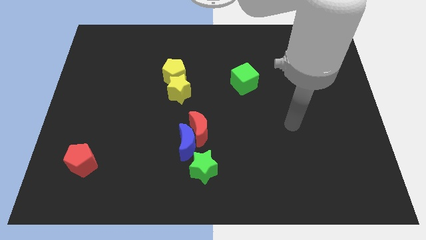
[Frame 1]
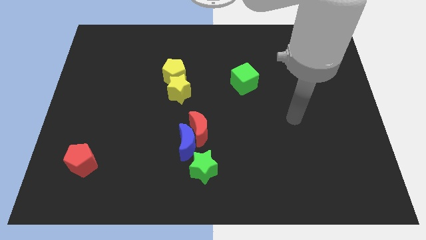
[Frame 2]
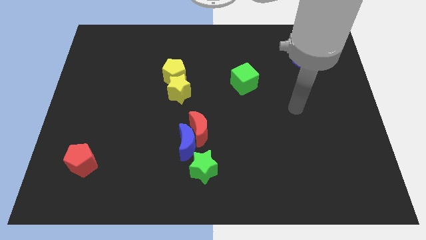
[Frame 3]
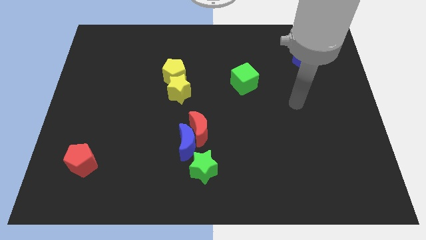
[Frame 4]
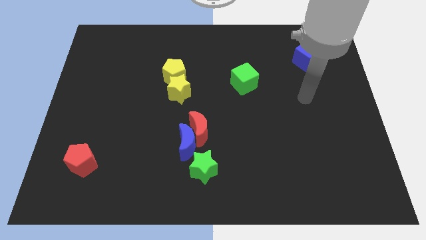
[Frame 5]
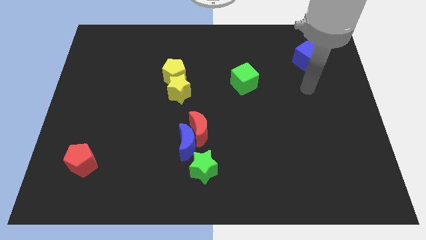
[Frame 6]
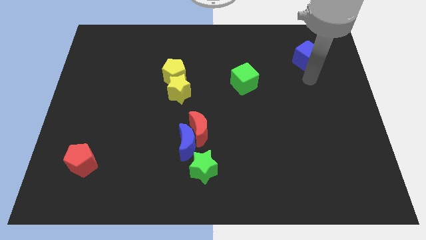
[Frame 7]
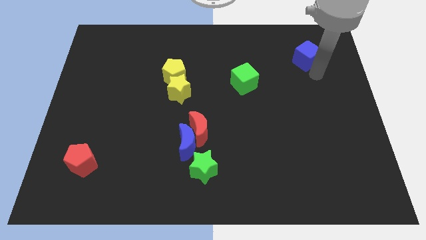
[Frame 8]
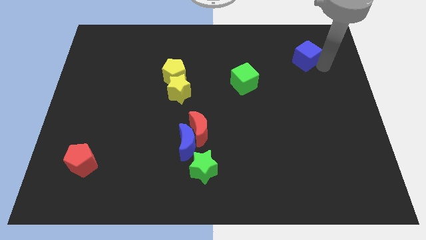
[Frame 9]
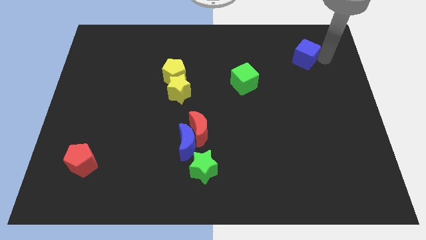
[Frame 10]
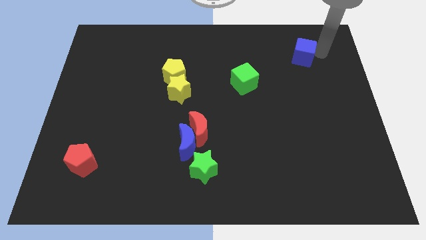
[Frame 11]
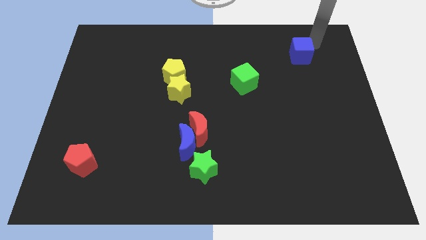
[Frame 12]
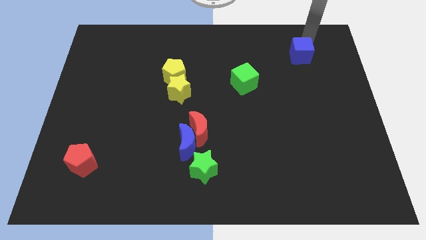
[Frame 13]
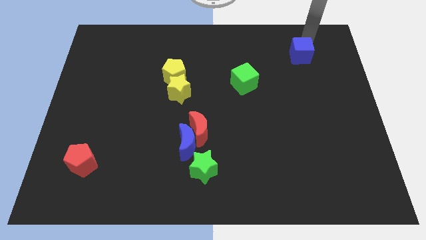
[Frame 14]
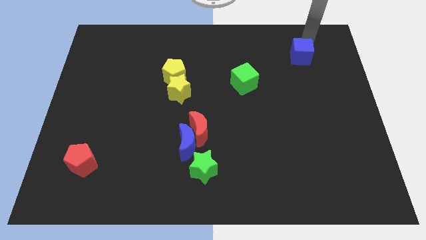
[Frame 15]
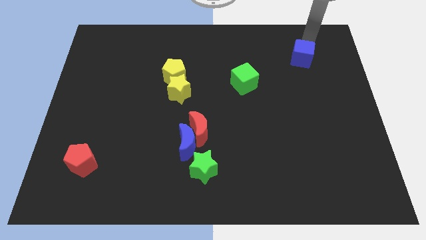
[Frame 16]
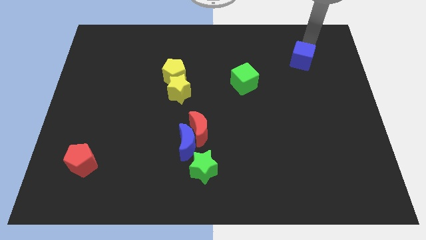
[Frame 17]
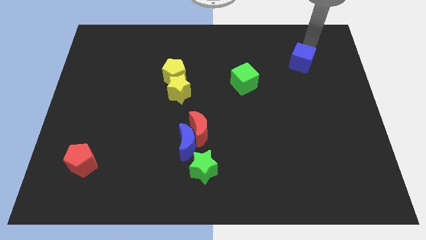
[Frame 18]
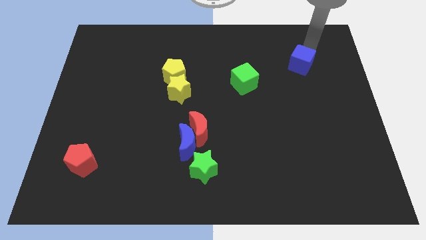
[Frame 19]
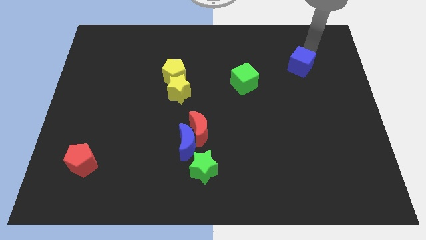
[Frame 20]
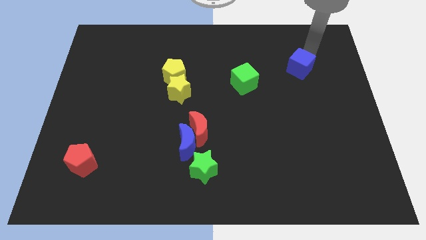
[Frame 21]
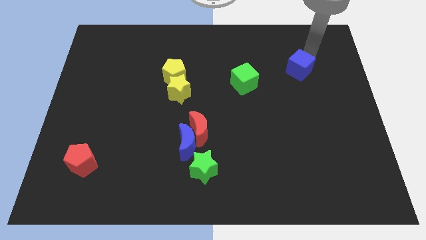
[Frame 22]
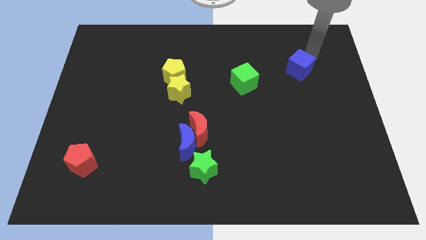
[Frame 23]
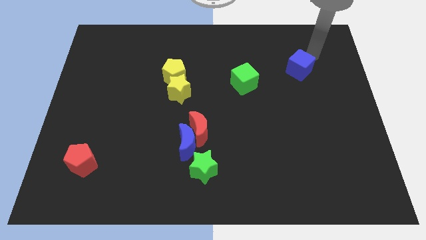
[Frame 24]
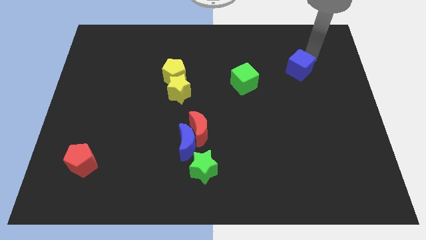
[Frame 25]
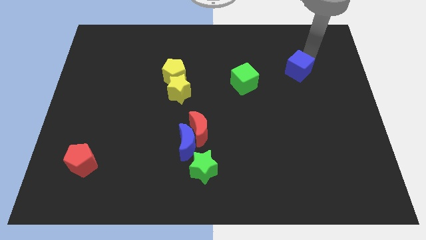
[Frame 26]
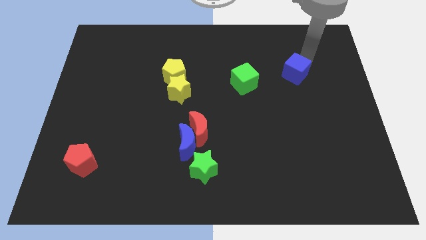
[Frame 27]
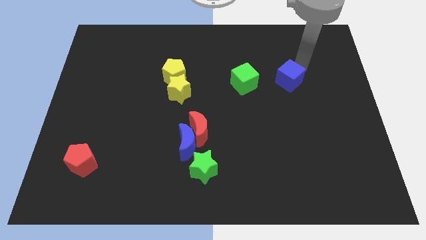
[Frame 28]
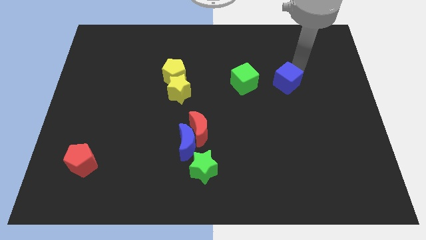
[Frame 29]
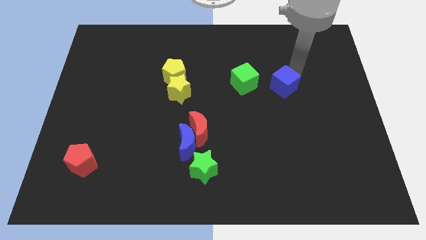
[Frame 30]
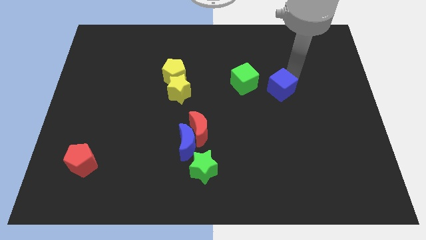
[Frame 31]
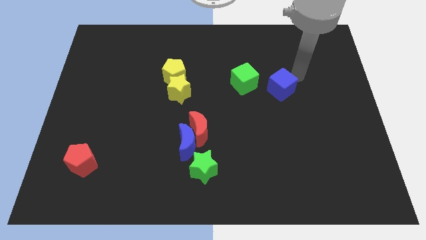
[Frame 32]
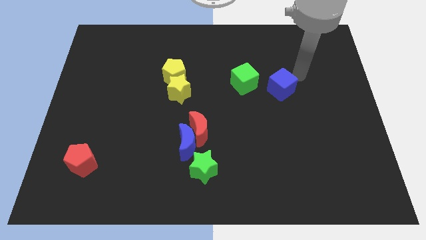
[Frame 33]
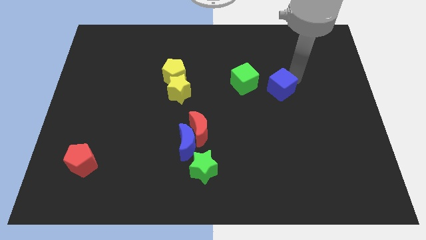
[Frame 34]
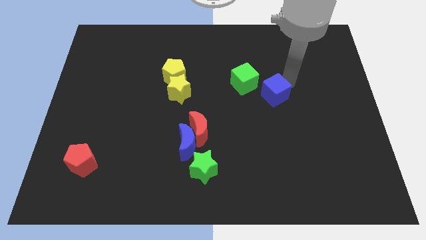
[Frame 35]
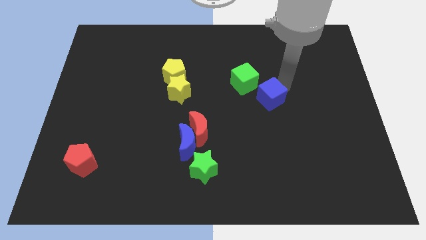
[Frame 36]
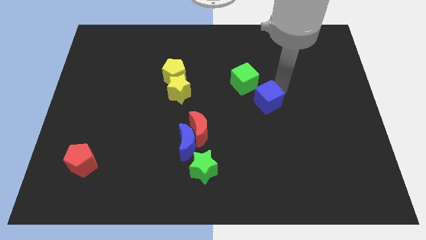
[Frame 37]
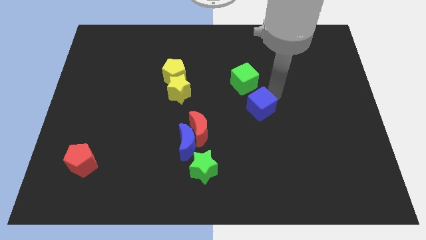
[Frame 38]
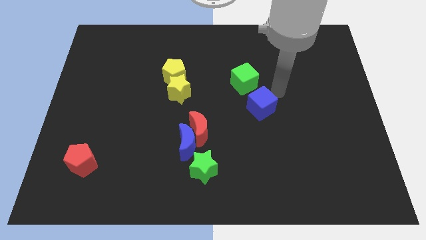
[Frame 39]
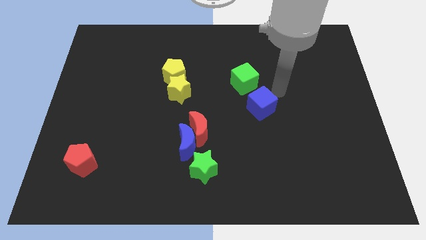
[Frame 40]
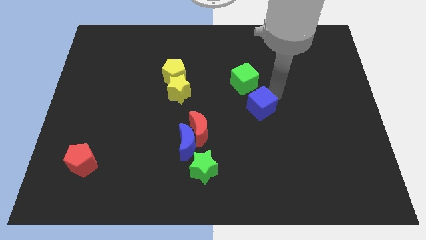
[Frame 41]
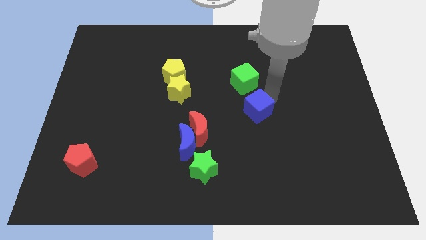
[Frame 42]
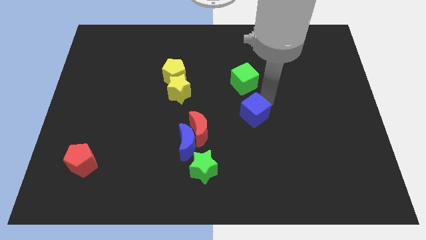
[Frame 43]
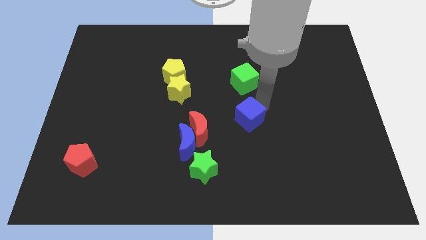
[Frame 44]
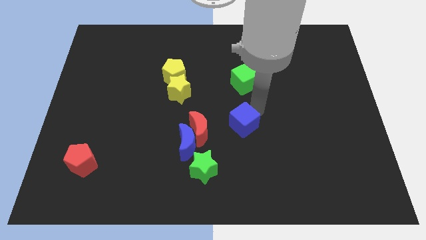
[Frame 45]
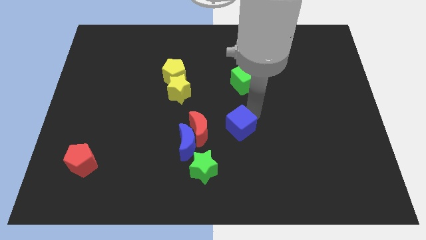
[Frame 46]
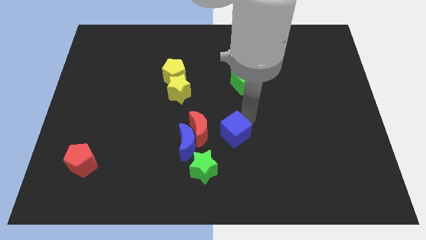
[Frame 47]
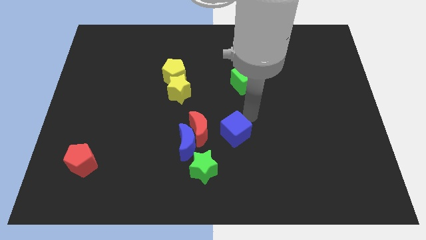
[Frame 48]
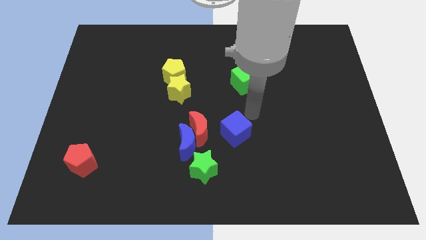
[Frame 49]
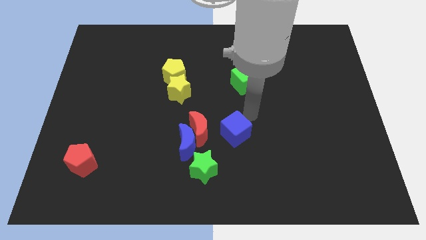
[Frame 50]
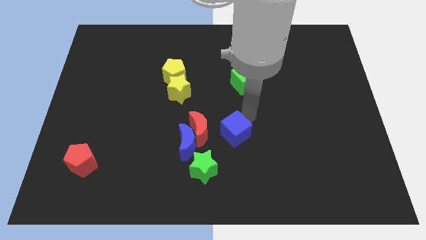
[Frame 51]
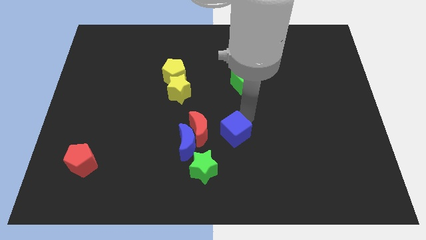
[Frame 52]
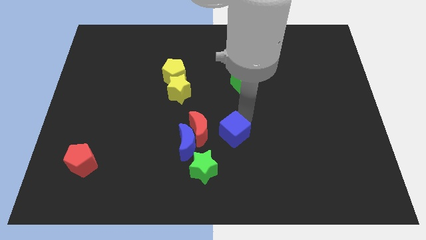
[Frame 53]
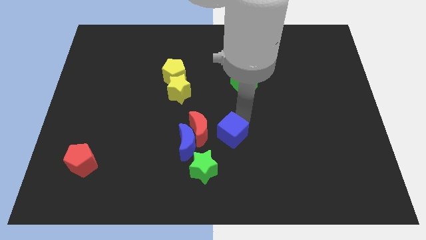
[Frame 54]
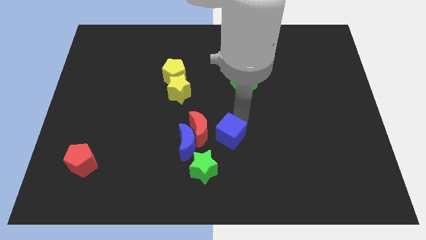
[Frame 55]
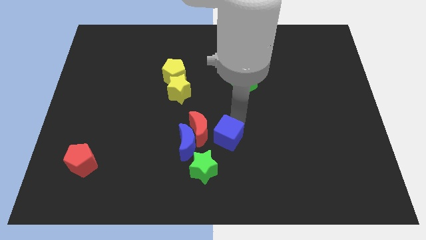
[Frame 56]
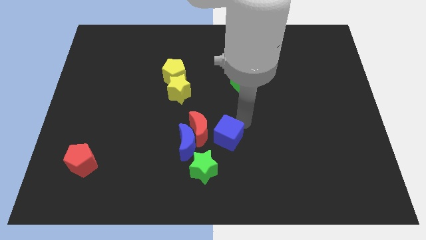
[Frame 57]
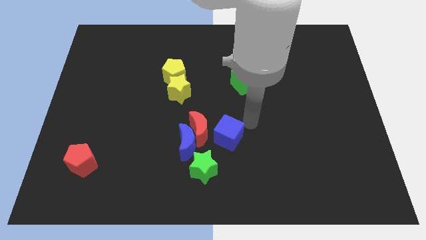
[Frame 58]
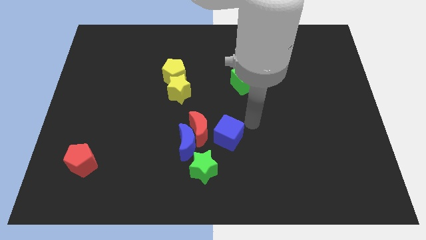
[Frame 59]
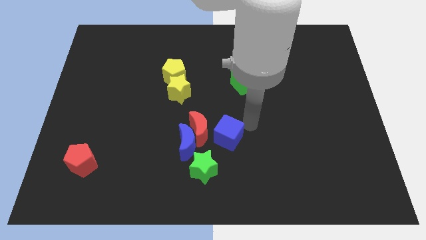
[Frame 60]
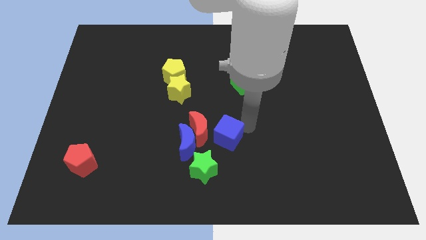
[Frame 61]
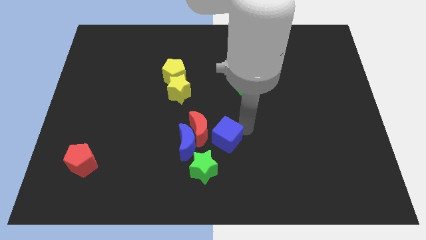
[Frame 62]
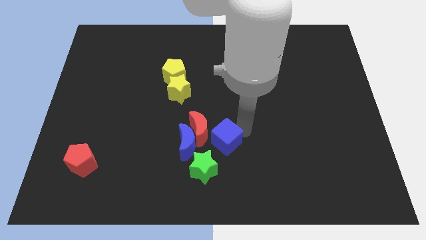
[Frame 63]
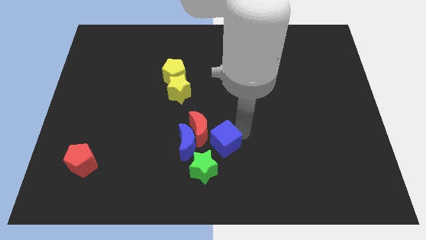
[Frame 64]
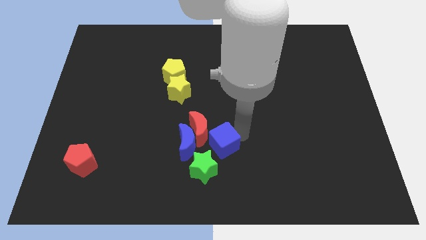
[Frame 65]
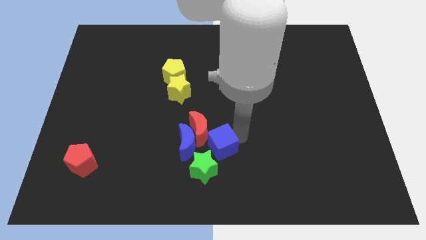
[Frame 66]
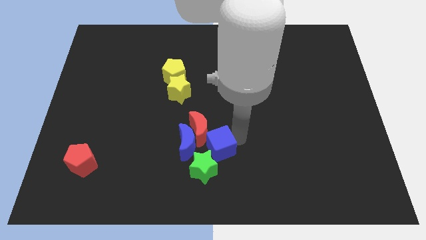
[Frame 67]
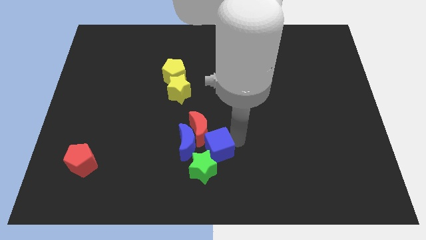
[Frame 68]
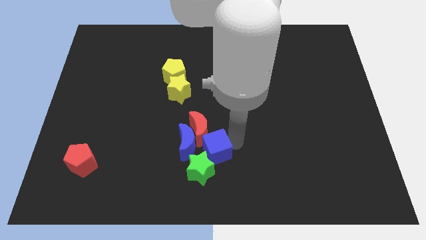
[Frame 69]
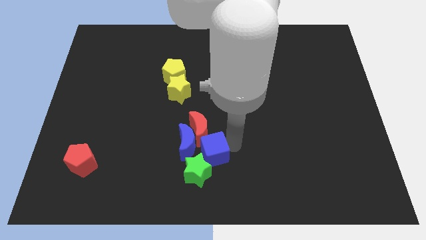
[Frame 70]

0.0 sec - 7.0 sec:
slide the blue cube towards the blue moon

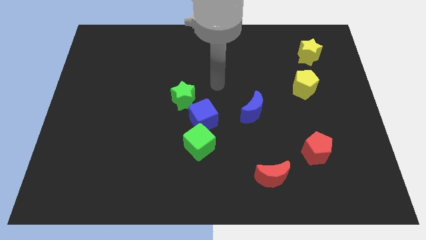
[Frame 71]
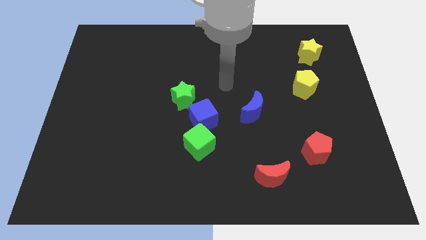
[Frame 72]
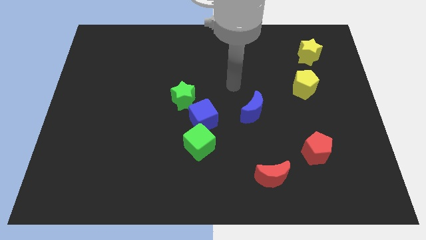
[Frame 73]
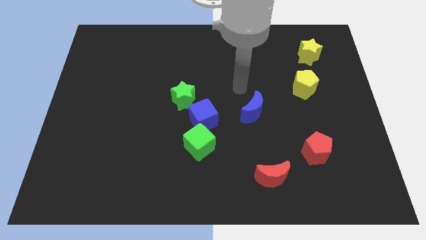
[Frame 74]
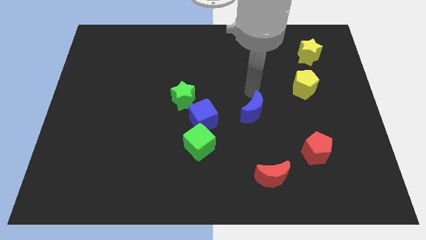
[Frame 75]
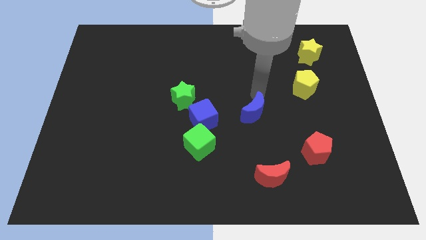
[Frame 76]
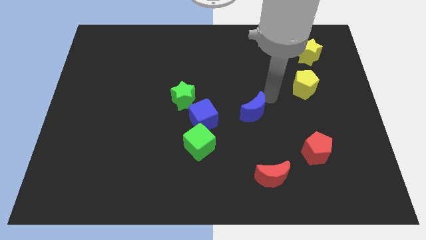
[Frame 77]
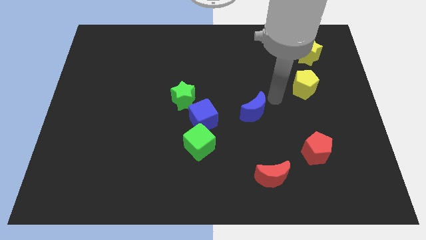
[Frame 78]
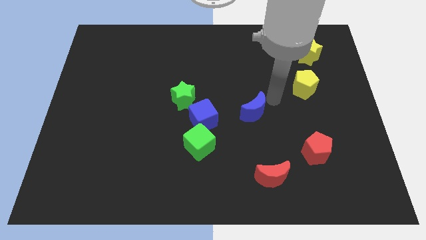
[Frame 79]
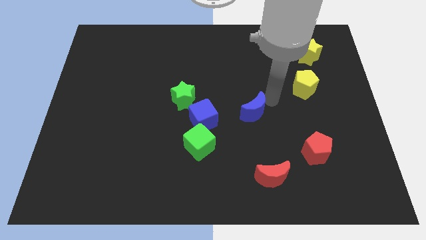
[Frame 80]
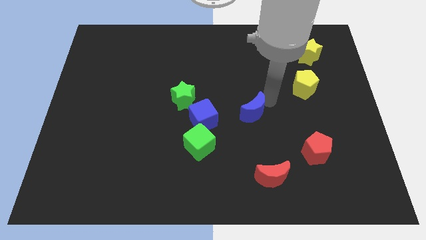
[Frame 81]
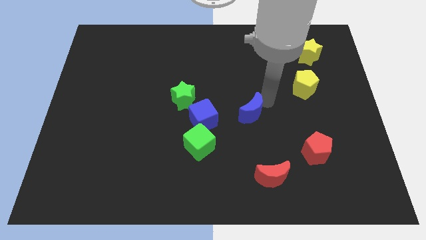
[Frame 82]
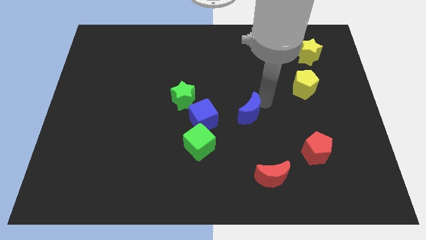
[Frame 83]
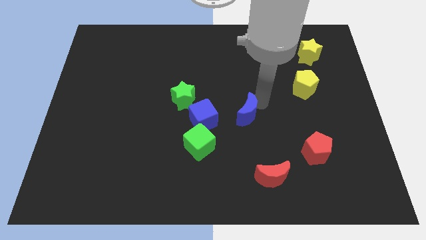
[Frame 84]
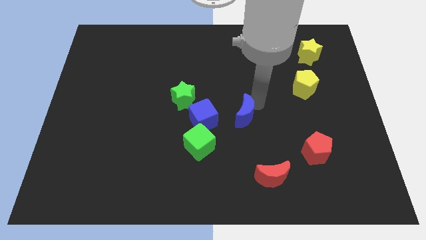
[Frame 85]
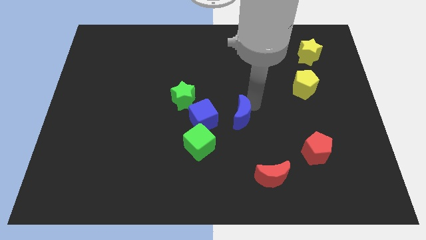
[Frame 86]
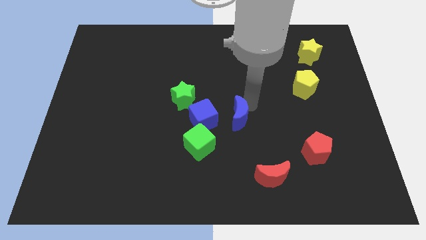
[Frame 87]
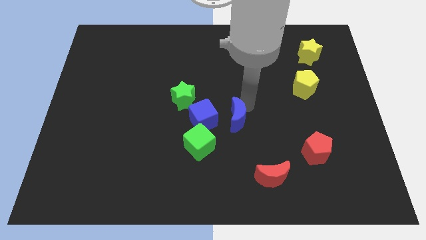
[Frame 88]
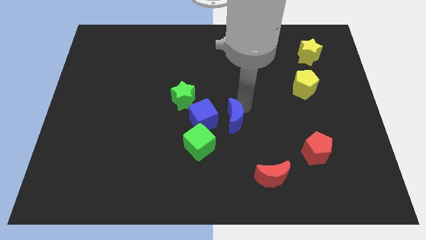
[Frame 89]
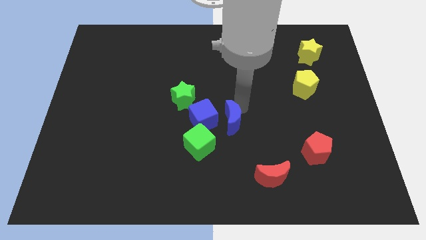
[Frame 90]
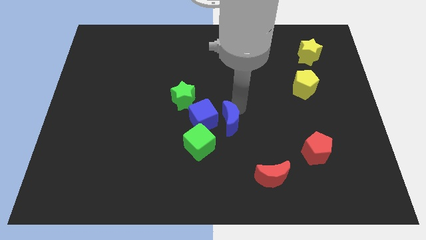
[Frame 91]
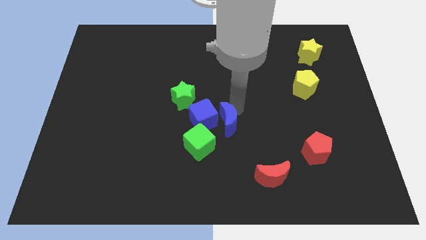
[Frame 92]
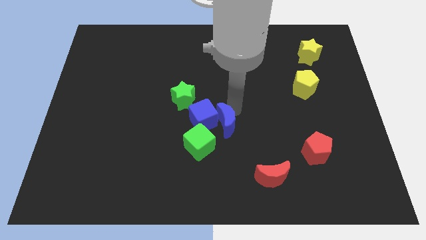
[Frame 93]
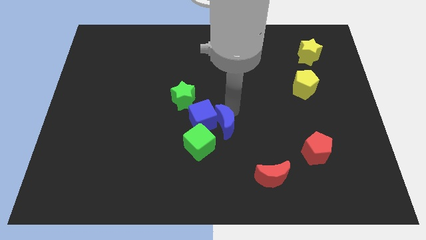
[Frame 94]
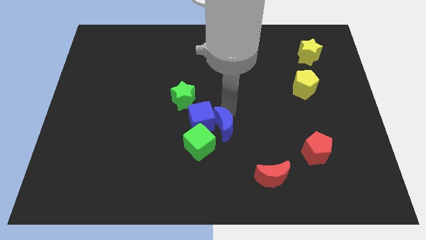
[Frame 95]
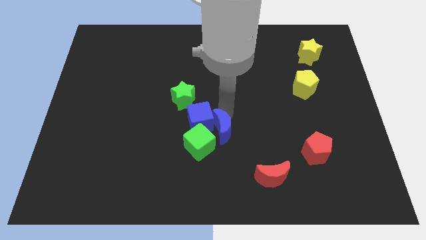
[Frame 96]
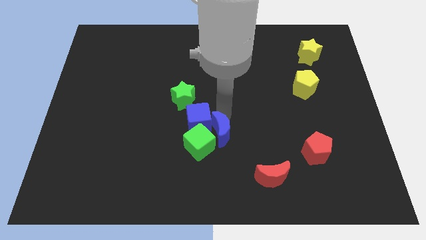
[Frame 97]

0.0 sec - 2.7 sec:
put the blue moon towards the green cube
